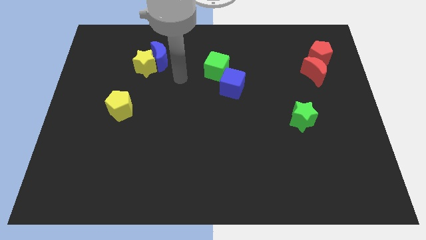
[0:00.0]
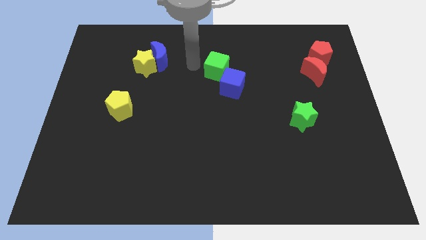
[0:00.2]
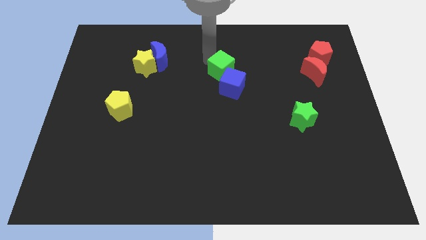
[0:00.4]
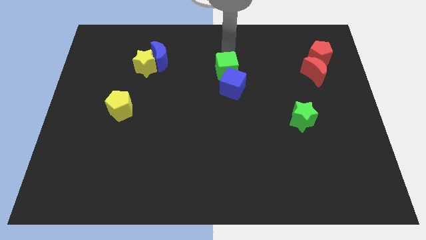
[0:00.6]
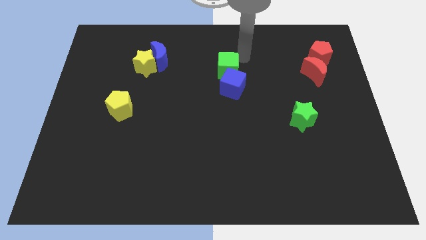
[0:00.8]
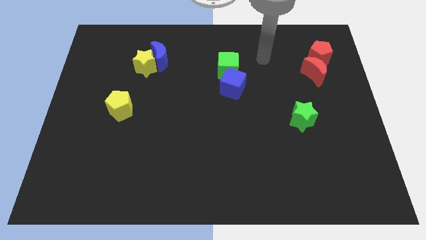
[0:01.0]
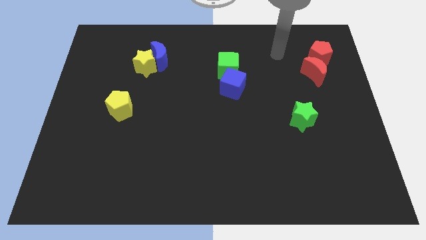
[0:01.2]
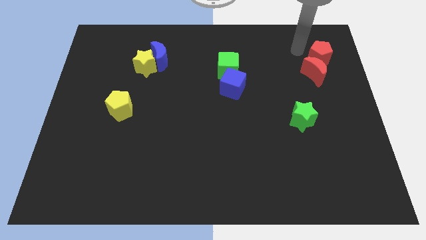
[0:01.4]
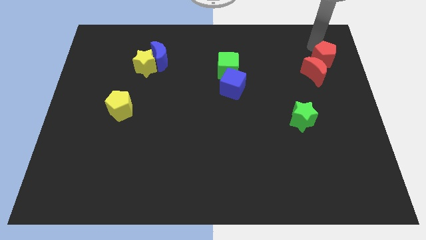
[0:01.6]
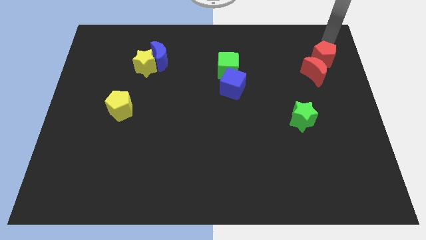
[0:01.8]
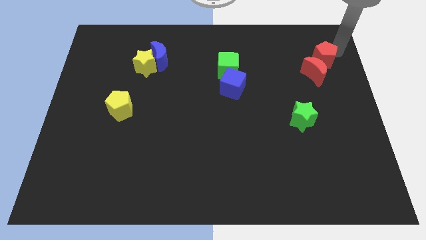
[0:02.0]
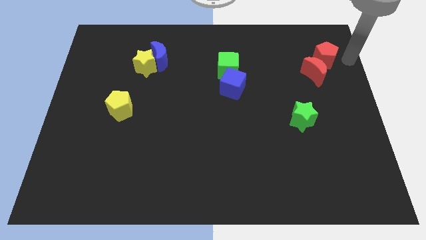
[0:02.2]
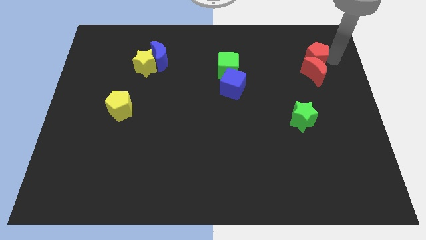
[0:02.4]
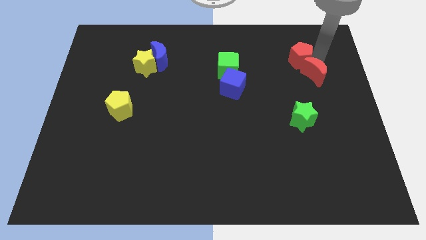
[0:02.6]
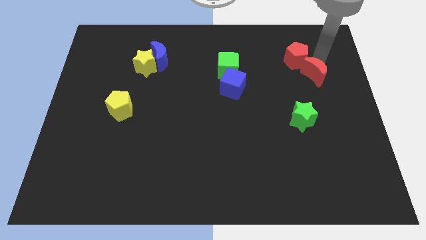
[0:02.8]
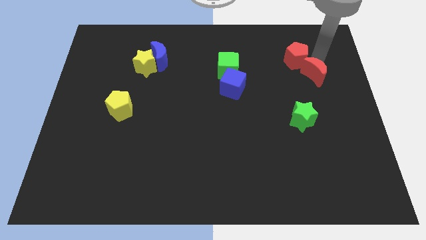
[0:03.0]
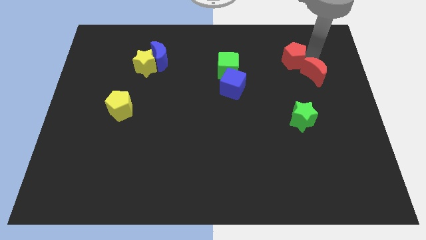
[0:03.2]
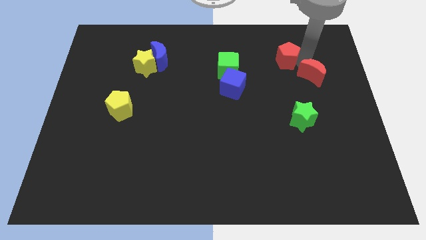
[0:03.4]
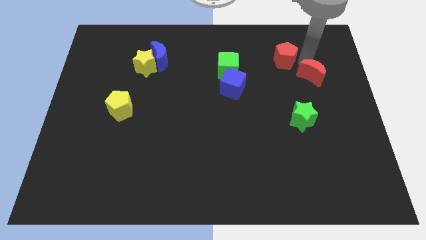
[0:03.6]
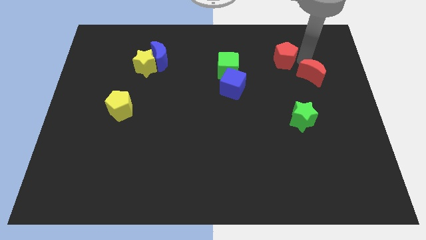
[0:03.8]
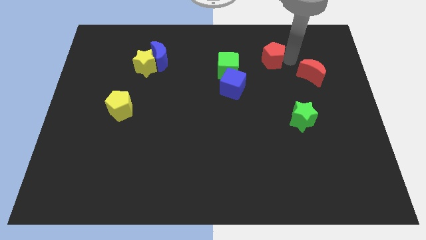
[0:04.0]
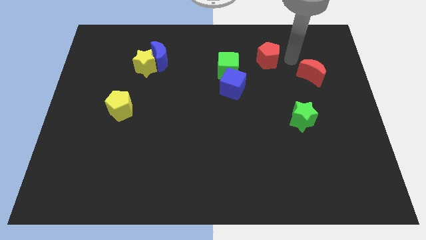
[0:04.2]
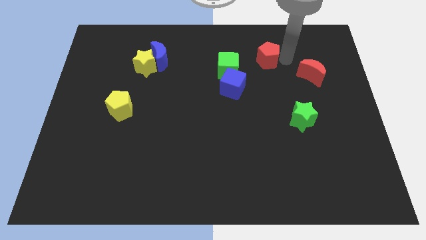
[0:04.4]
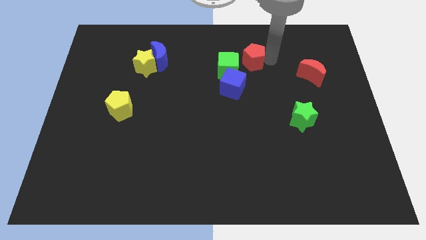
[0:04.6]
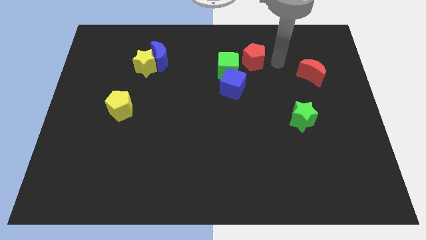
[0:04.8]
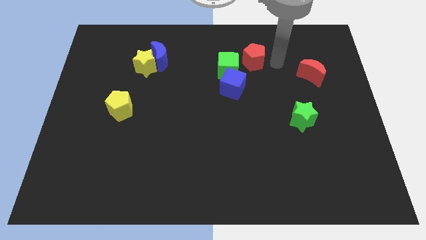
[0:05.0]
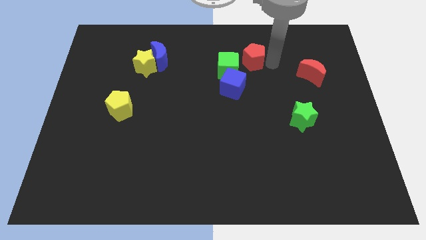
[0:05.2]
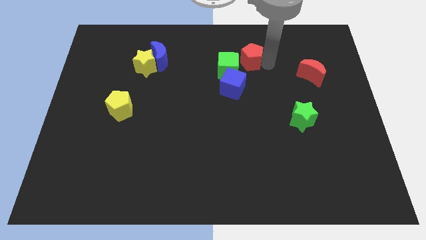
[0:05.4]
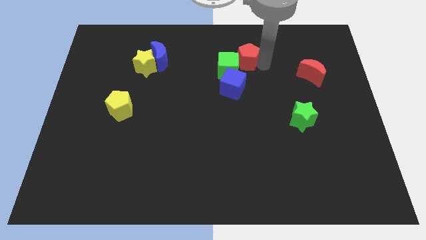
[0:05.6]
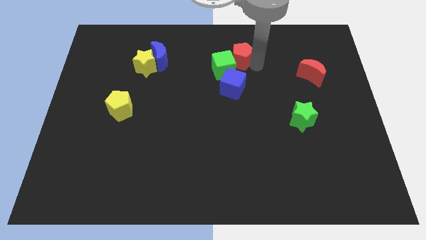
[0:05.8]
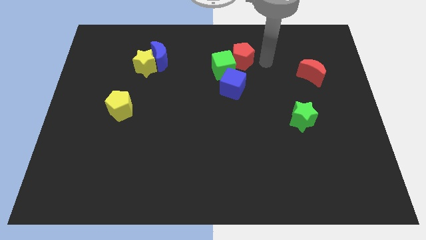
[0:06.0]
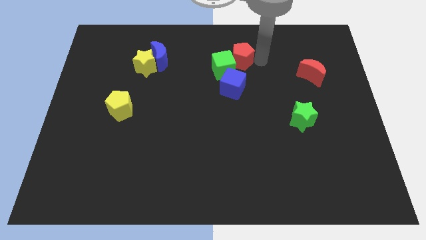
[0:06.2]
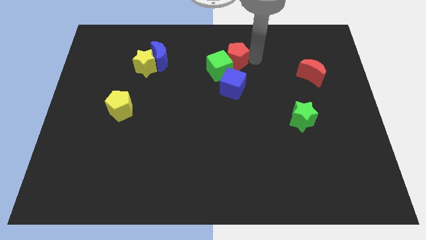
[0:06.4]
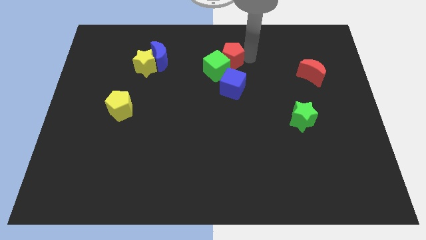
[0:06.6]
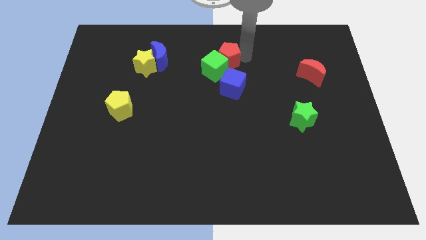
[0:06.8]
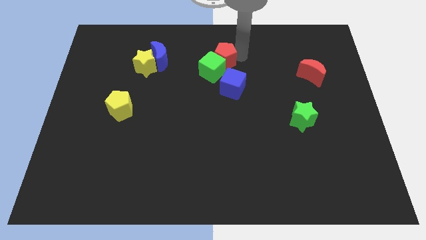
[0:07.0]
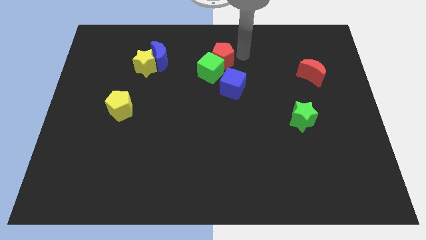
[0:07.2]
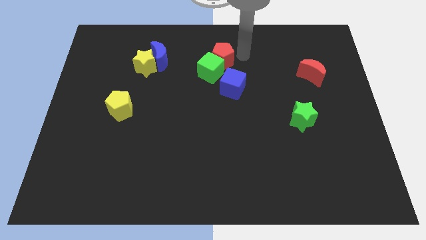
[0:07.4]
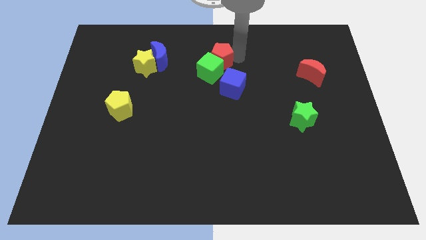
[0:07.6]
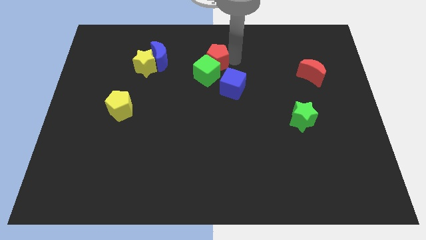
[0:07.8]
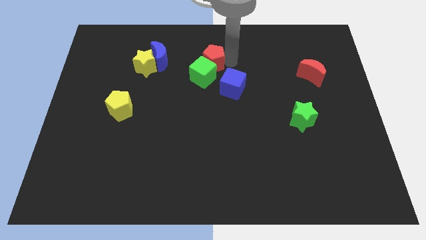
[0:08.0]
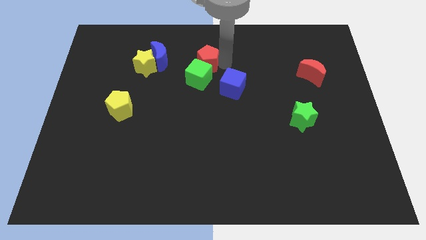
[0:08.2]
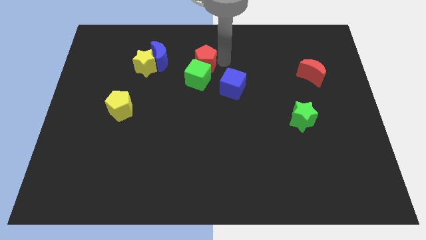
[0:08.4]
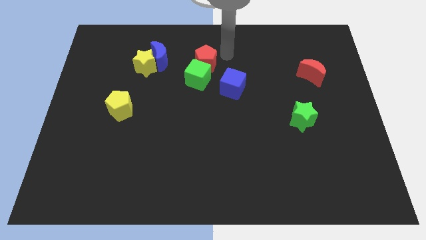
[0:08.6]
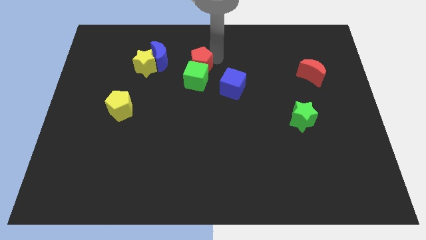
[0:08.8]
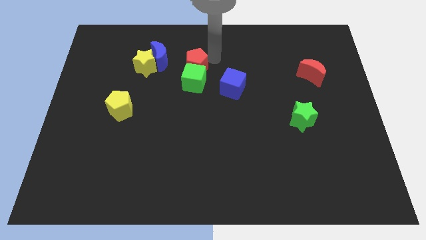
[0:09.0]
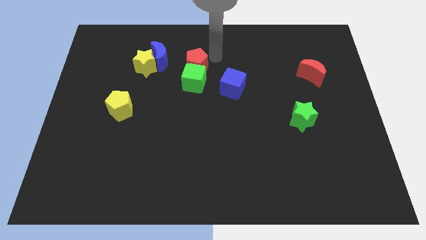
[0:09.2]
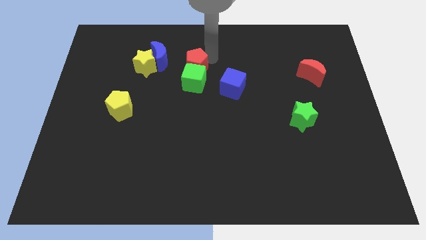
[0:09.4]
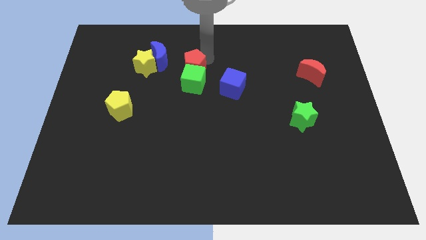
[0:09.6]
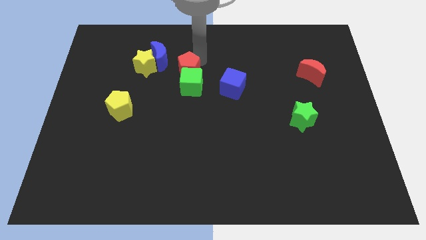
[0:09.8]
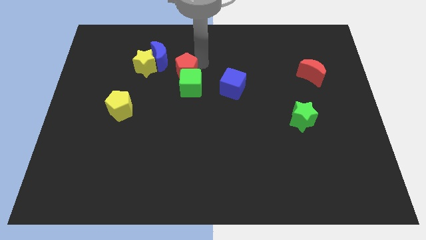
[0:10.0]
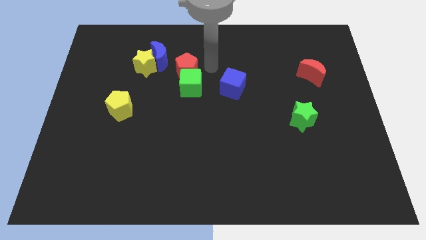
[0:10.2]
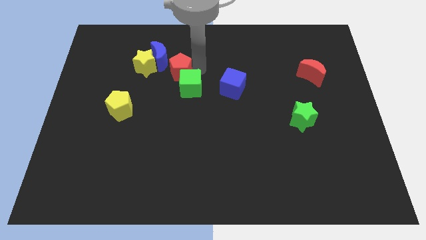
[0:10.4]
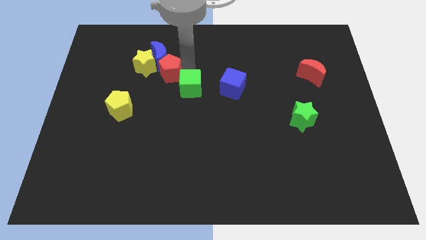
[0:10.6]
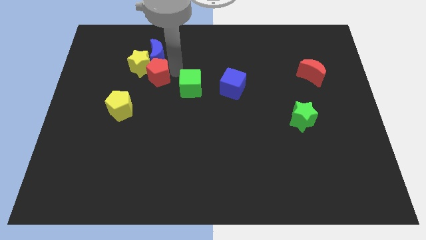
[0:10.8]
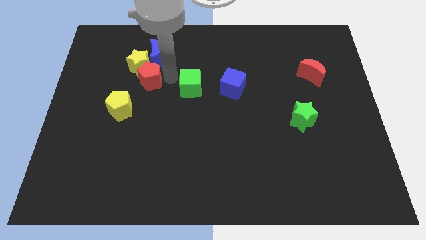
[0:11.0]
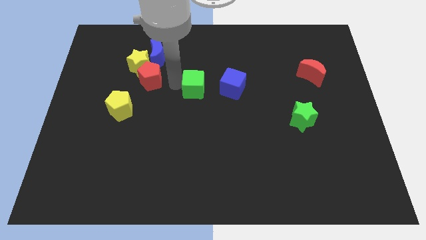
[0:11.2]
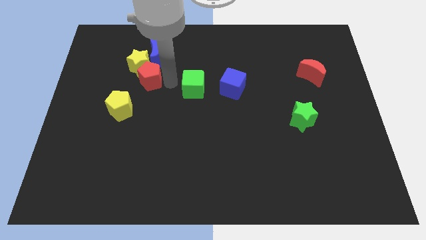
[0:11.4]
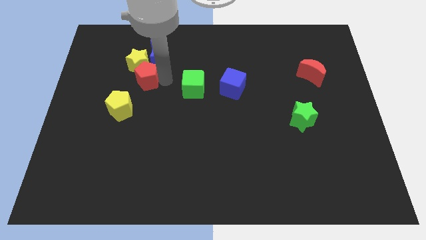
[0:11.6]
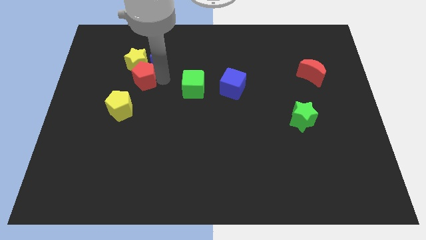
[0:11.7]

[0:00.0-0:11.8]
put the red pentagon above the yellow pentagon
